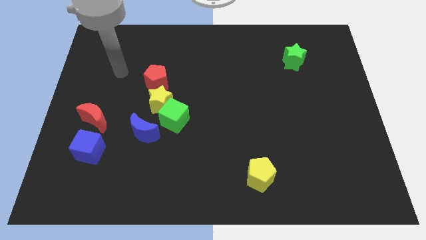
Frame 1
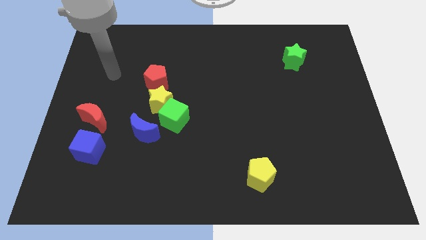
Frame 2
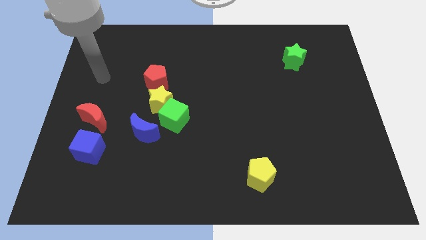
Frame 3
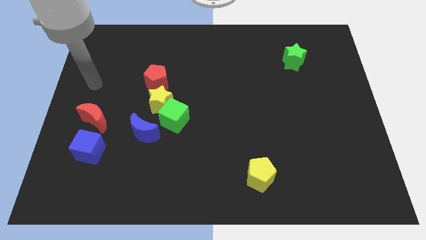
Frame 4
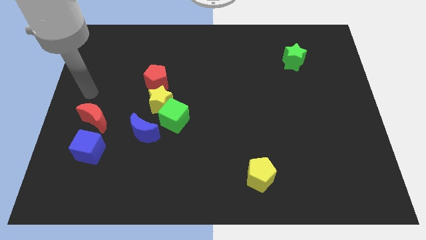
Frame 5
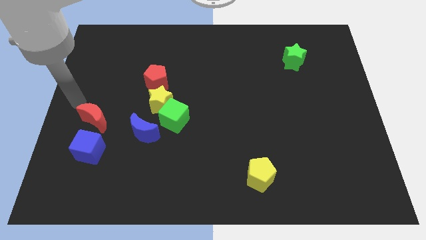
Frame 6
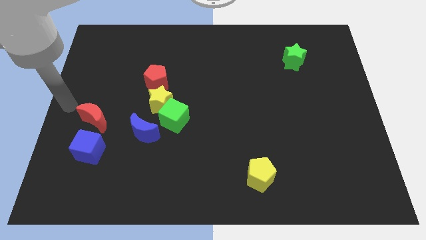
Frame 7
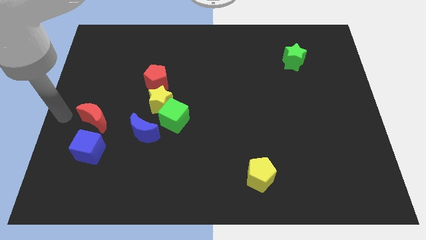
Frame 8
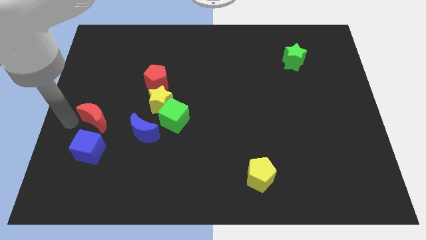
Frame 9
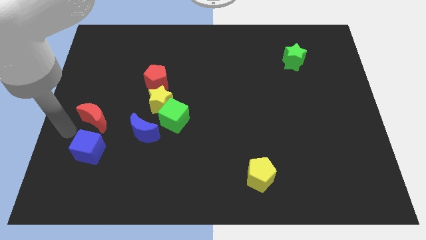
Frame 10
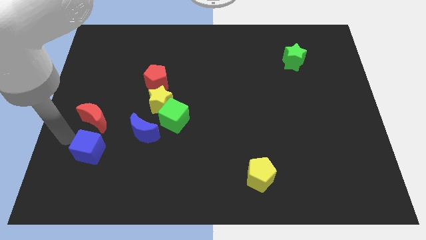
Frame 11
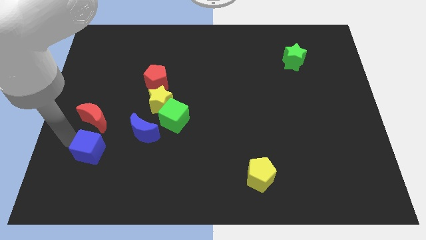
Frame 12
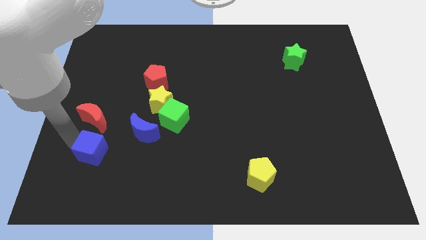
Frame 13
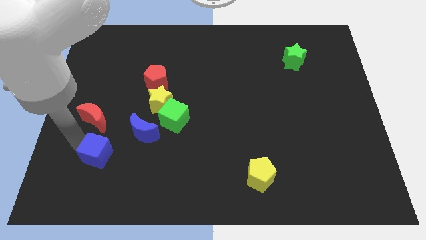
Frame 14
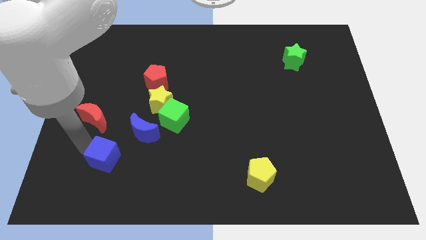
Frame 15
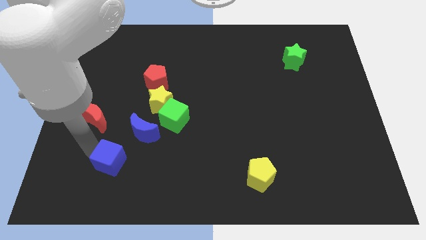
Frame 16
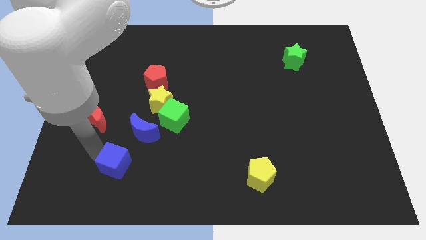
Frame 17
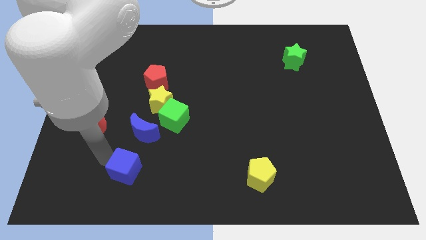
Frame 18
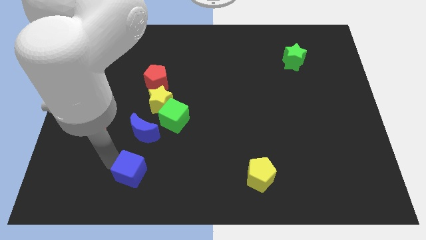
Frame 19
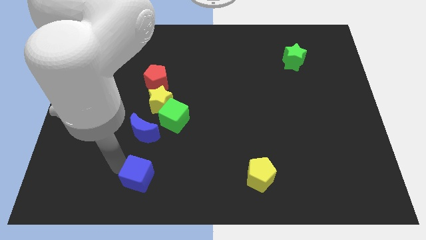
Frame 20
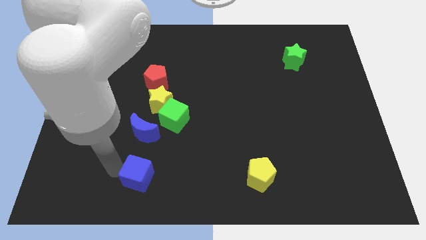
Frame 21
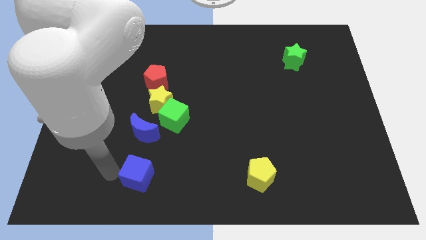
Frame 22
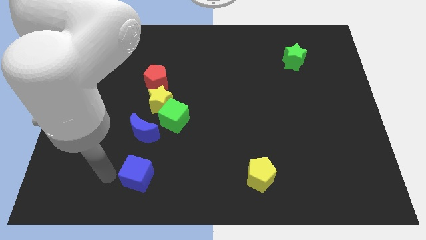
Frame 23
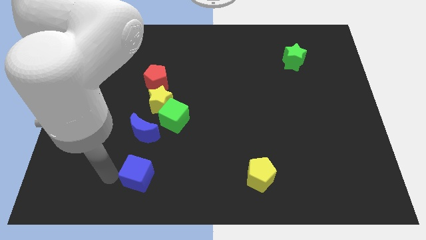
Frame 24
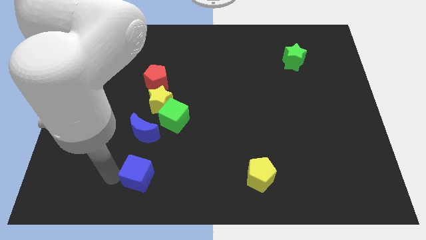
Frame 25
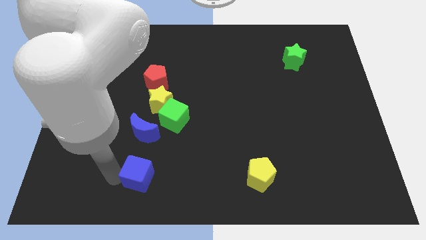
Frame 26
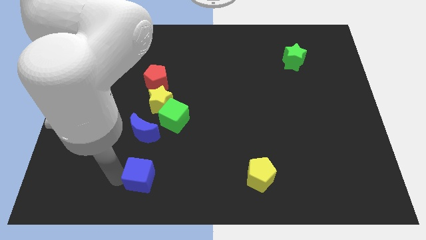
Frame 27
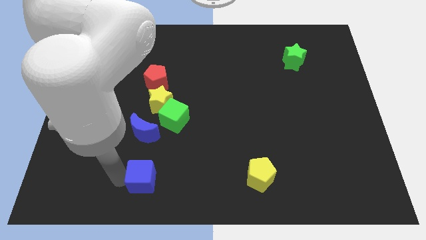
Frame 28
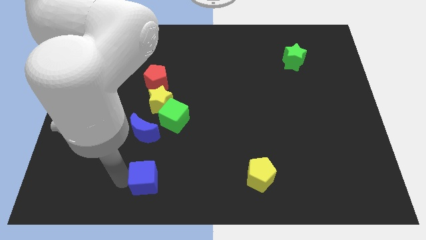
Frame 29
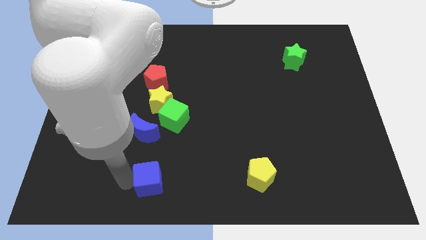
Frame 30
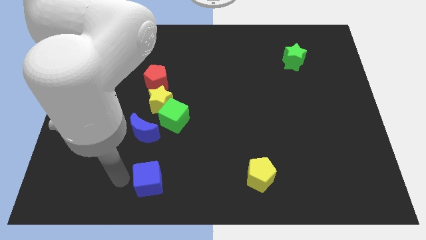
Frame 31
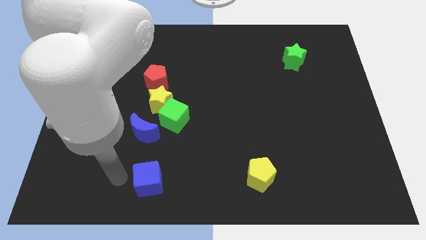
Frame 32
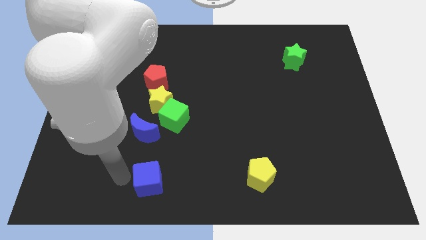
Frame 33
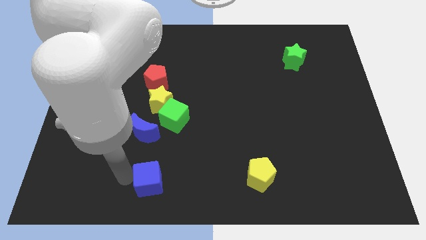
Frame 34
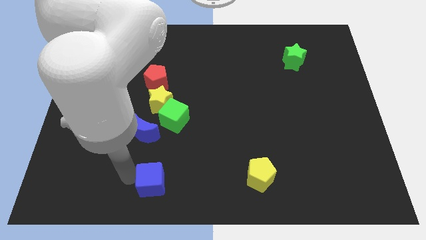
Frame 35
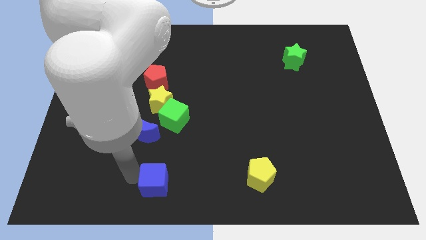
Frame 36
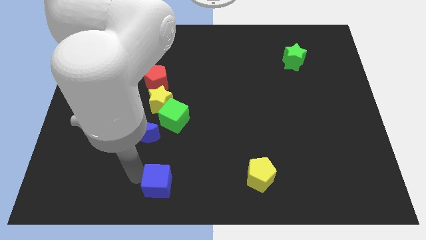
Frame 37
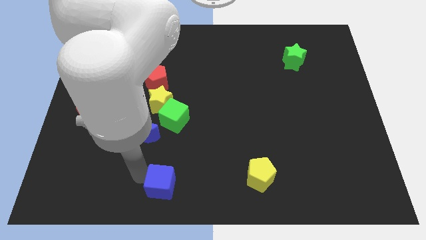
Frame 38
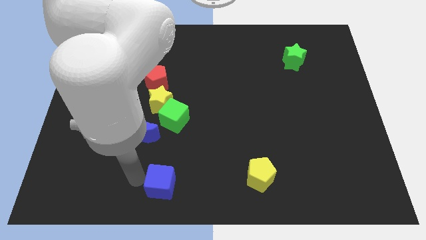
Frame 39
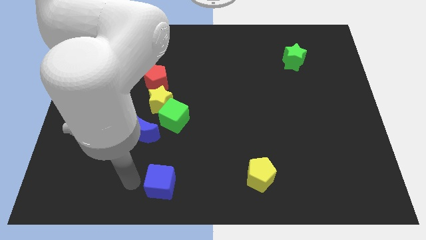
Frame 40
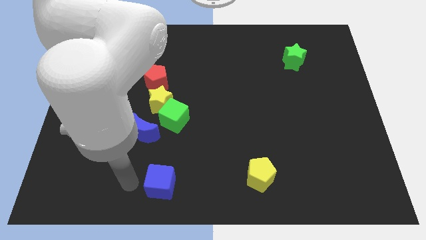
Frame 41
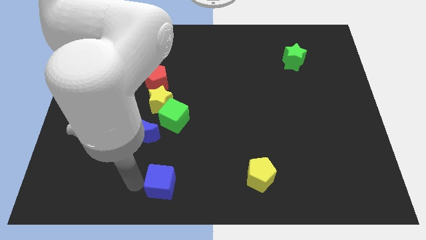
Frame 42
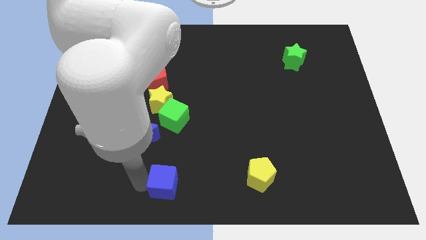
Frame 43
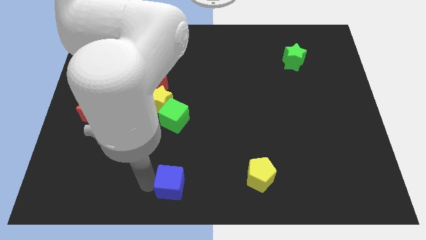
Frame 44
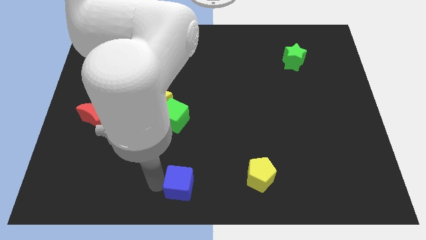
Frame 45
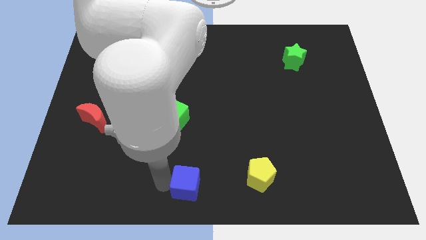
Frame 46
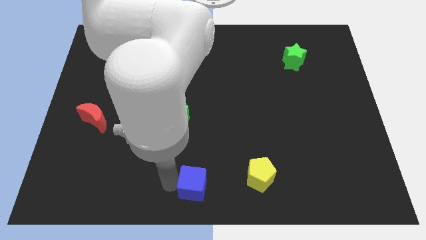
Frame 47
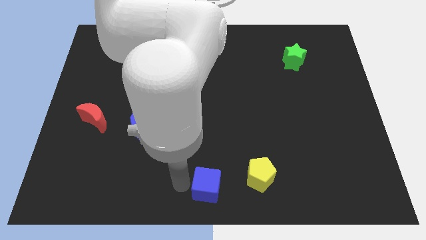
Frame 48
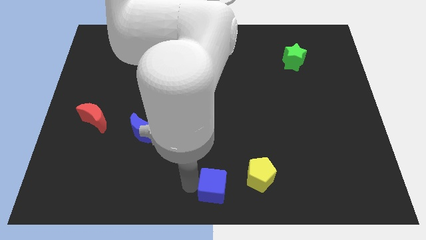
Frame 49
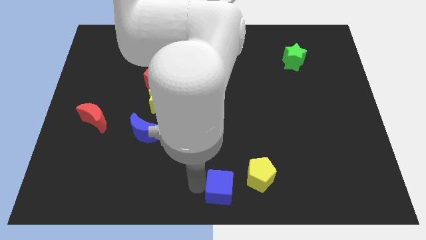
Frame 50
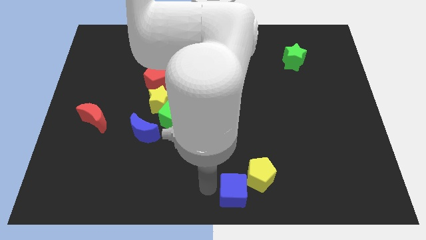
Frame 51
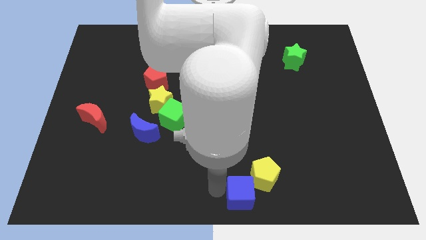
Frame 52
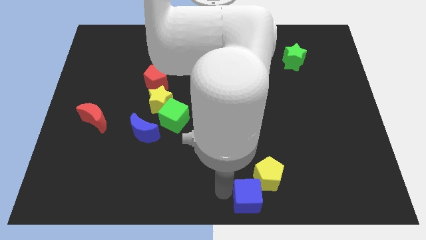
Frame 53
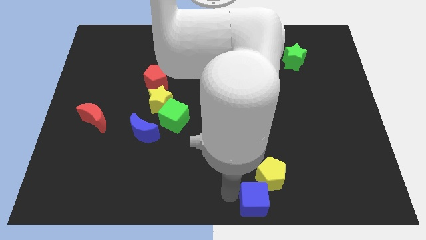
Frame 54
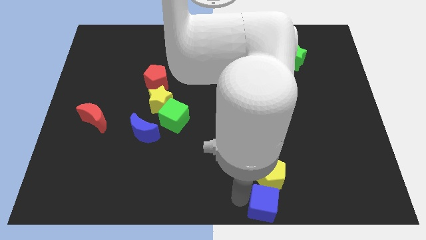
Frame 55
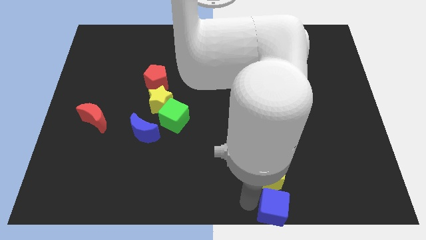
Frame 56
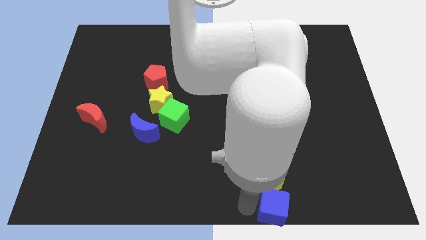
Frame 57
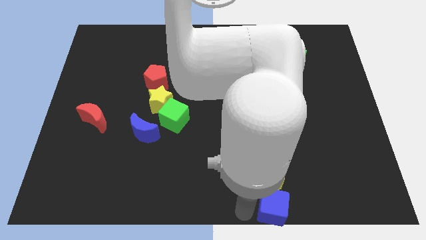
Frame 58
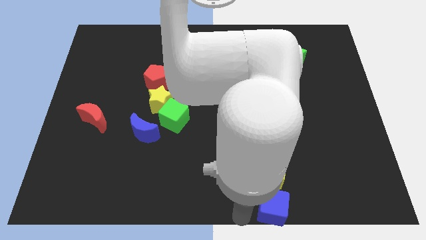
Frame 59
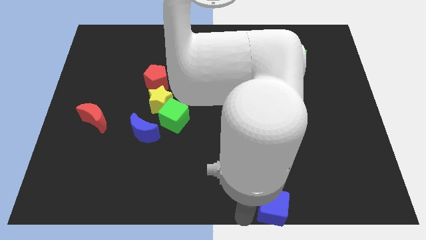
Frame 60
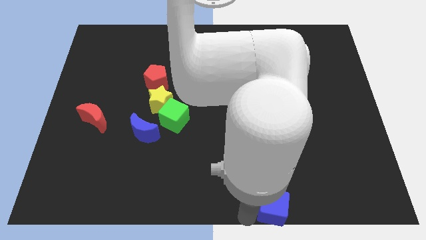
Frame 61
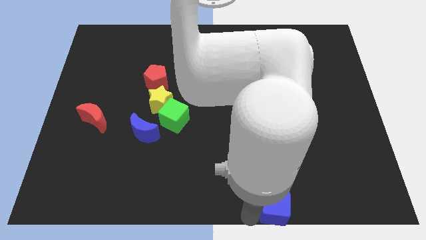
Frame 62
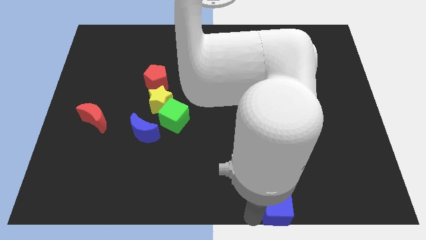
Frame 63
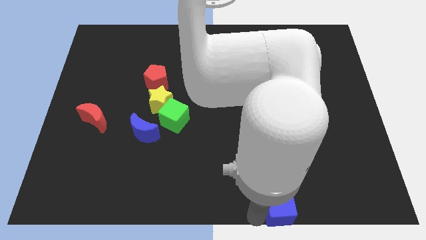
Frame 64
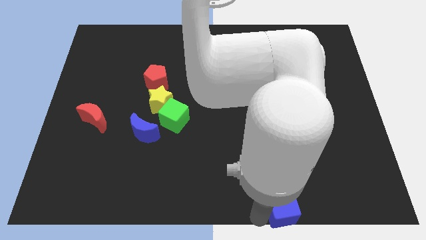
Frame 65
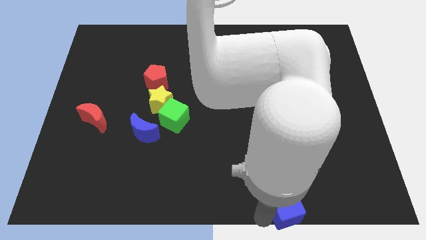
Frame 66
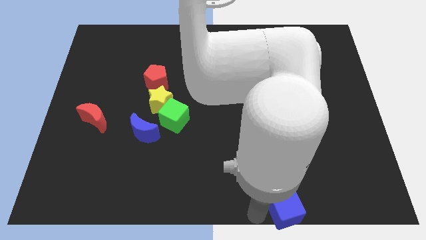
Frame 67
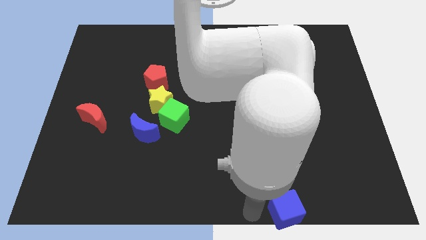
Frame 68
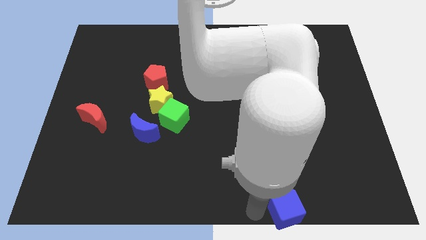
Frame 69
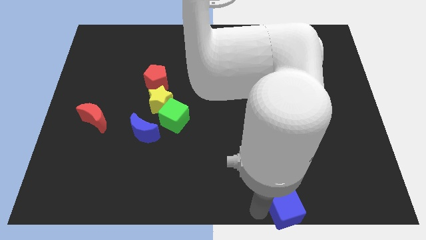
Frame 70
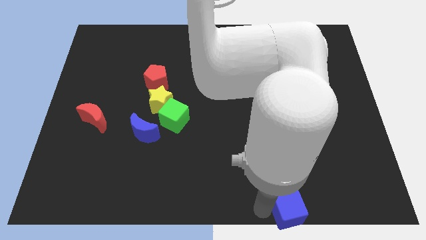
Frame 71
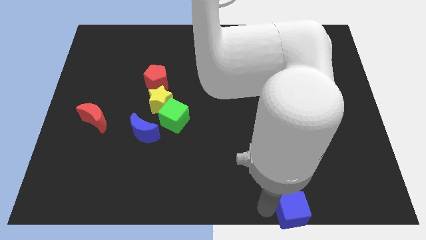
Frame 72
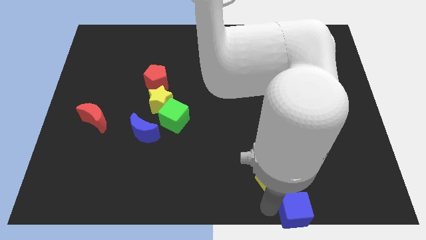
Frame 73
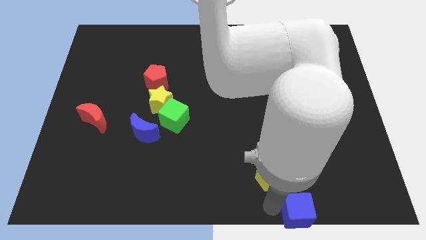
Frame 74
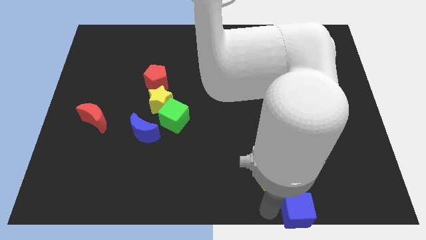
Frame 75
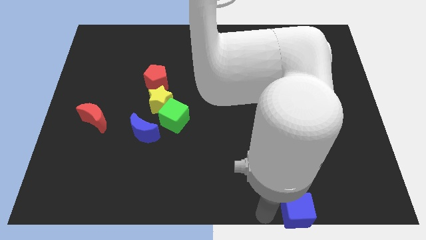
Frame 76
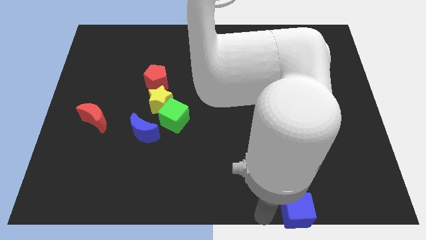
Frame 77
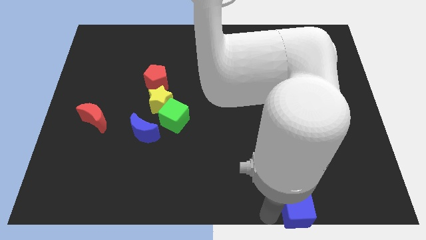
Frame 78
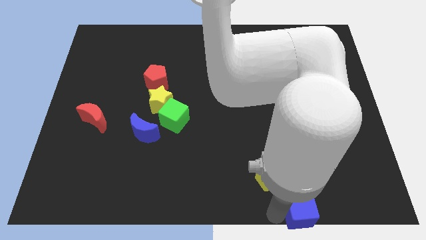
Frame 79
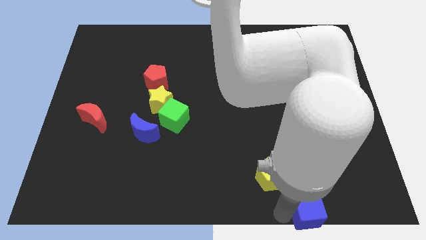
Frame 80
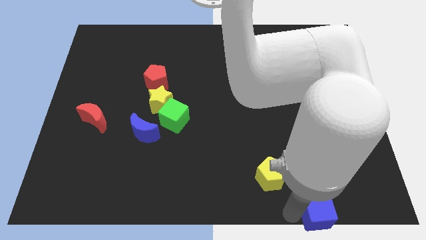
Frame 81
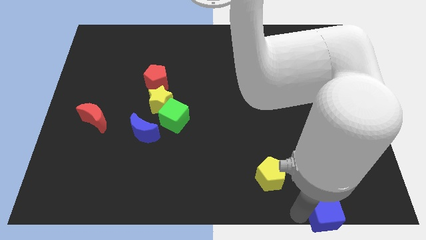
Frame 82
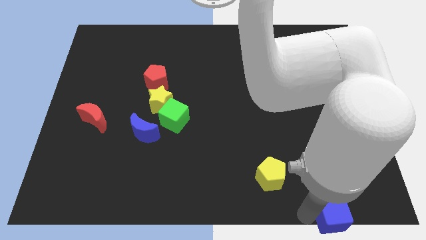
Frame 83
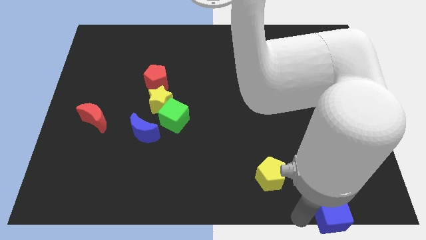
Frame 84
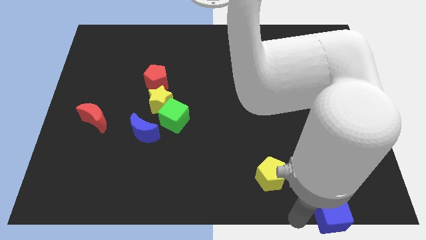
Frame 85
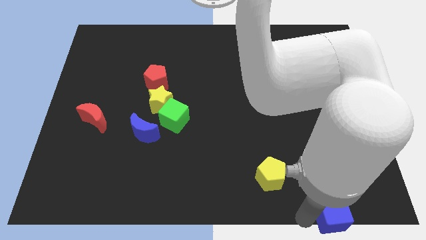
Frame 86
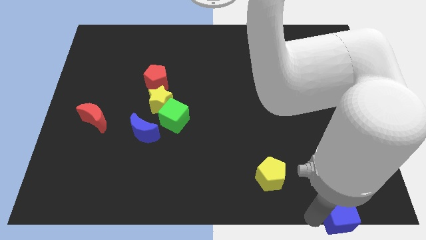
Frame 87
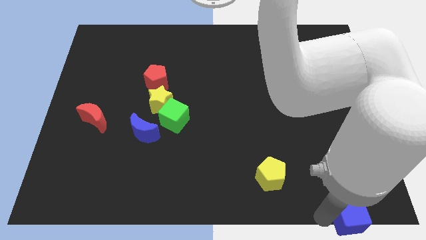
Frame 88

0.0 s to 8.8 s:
put the blue cube to the bottom right of the board
